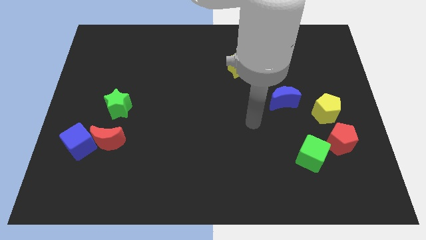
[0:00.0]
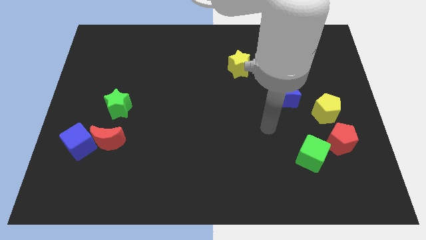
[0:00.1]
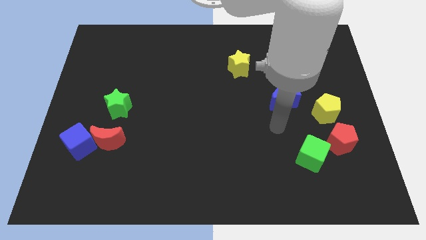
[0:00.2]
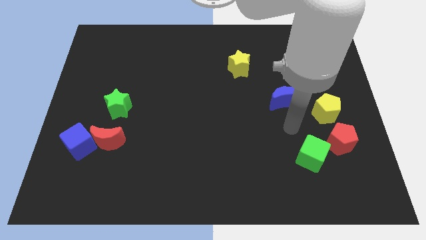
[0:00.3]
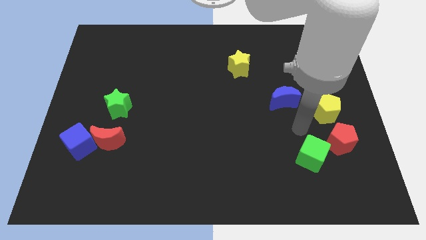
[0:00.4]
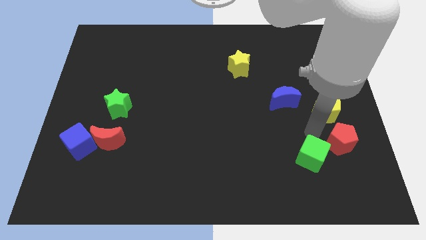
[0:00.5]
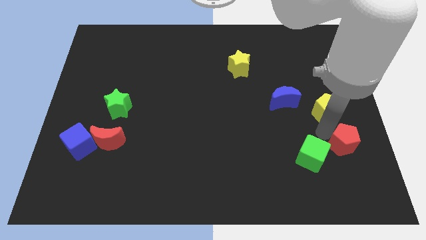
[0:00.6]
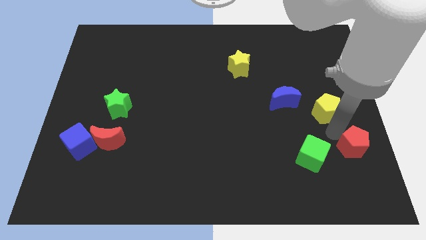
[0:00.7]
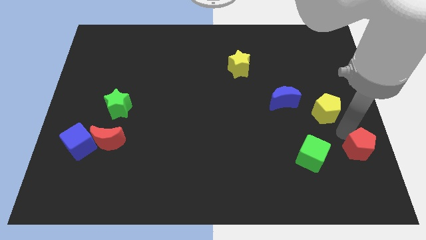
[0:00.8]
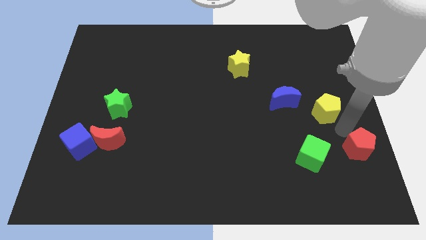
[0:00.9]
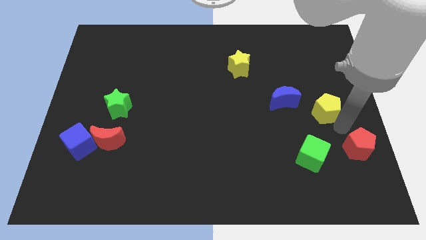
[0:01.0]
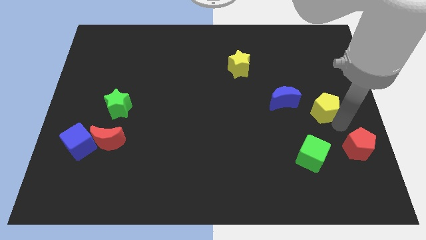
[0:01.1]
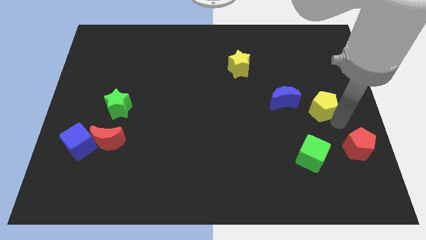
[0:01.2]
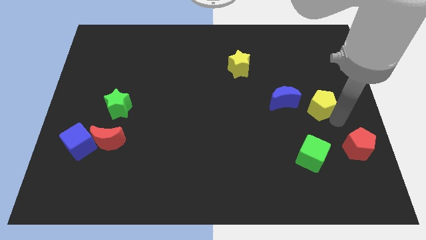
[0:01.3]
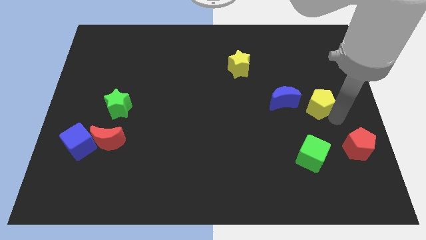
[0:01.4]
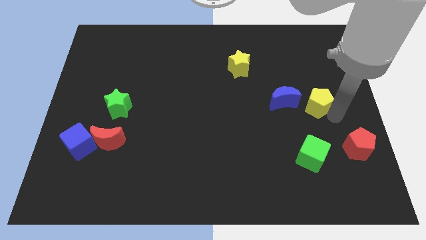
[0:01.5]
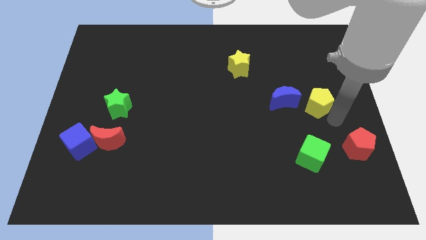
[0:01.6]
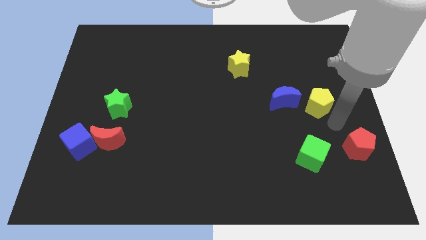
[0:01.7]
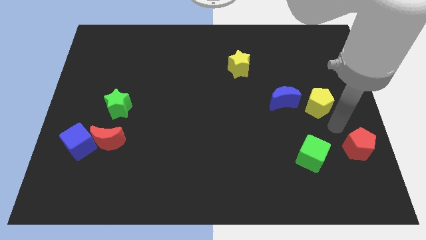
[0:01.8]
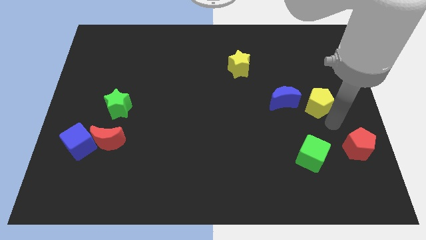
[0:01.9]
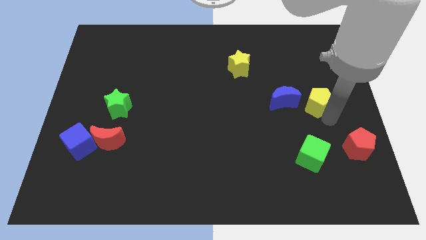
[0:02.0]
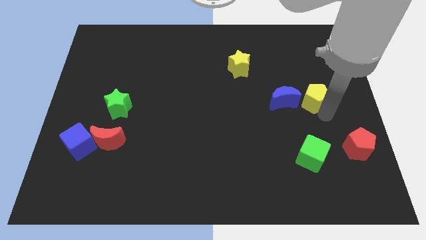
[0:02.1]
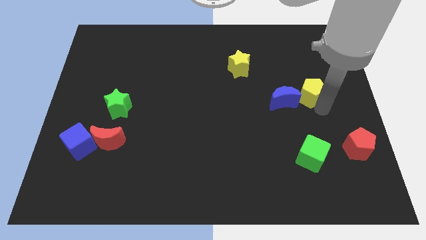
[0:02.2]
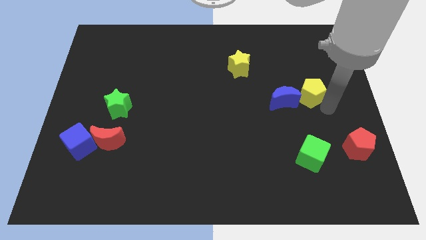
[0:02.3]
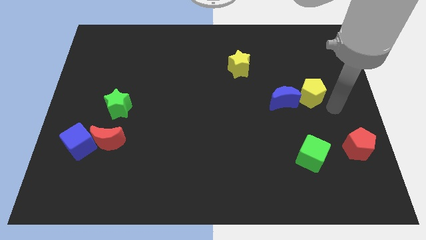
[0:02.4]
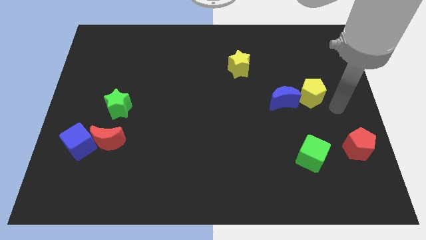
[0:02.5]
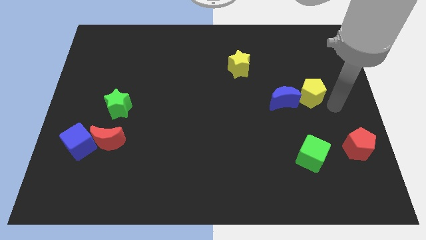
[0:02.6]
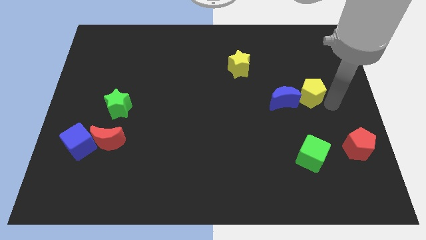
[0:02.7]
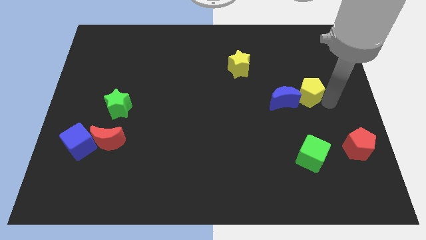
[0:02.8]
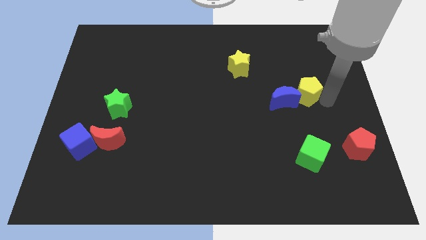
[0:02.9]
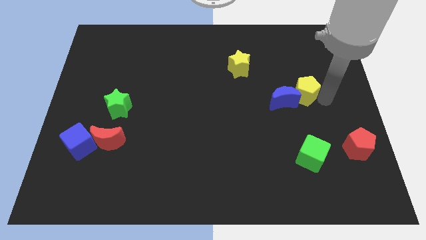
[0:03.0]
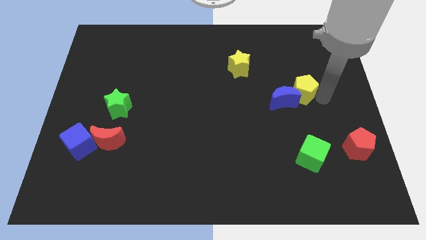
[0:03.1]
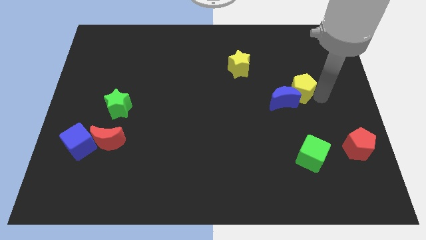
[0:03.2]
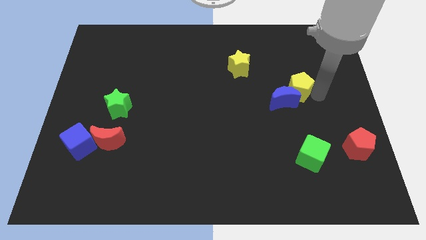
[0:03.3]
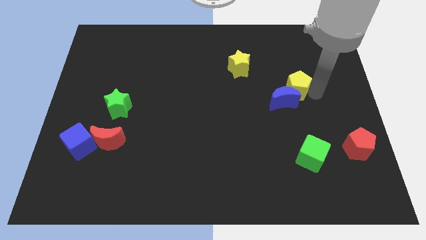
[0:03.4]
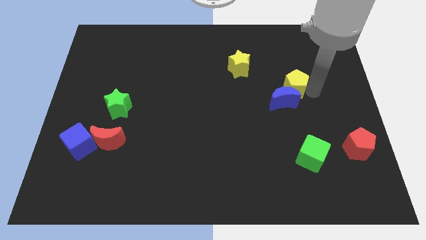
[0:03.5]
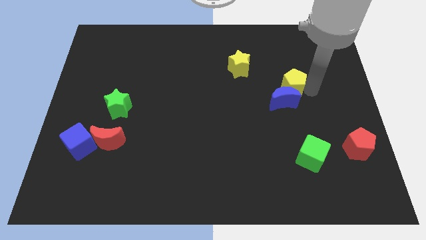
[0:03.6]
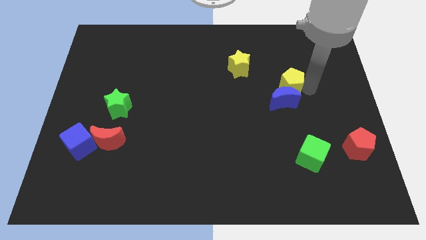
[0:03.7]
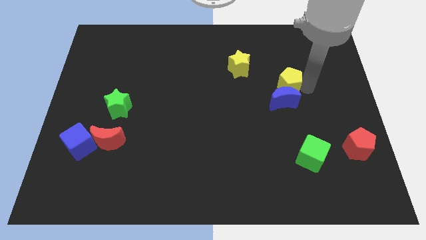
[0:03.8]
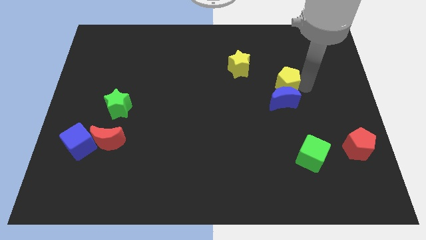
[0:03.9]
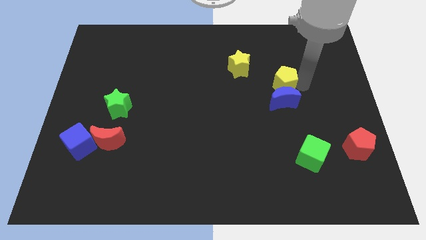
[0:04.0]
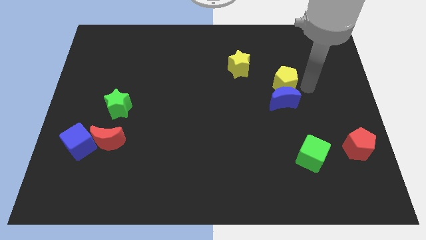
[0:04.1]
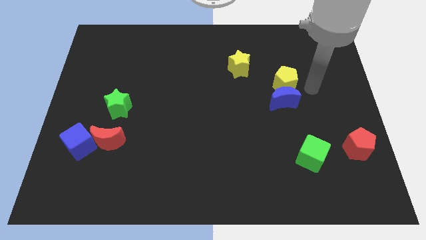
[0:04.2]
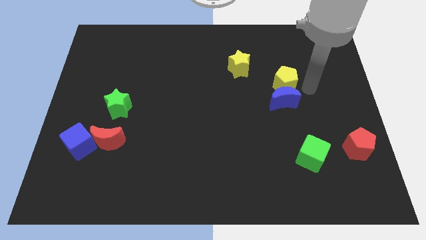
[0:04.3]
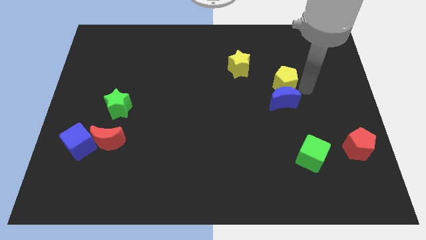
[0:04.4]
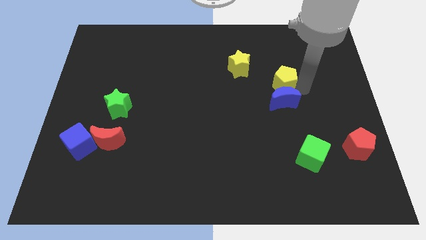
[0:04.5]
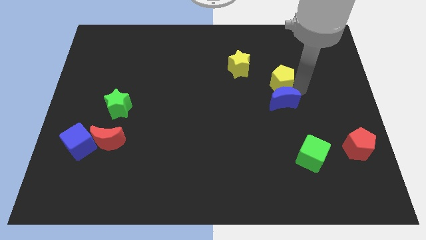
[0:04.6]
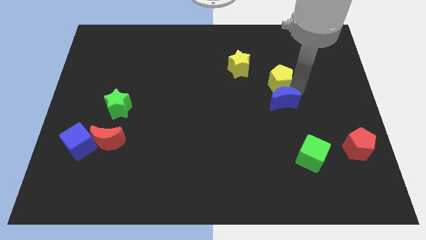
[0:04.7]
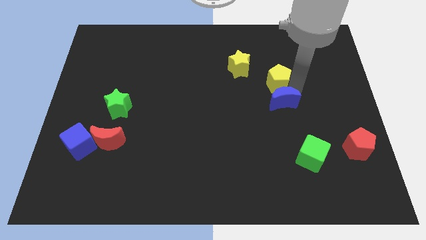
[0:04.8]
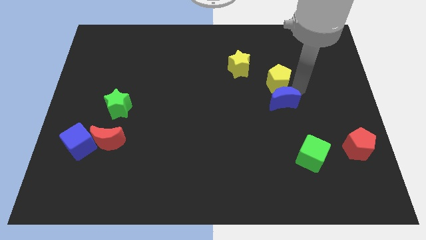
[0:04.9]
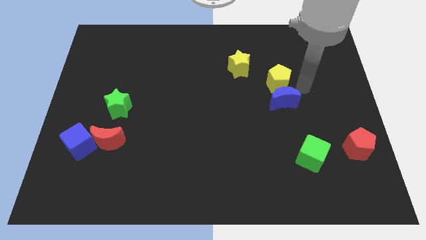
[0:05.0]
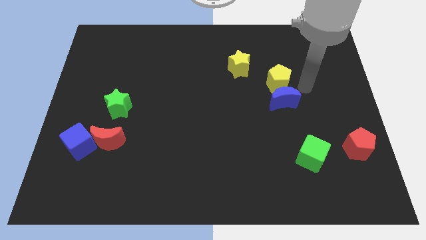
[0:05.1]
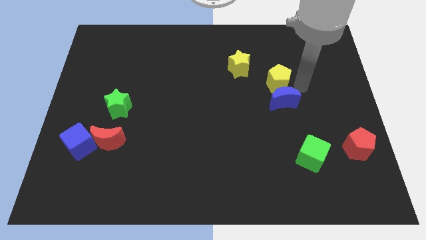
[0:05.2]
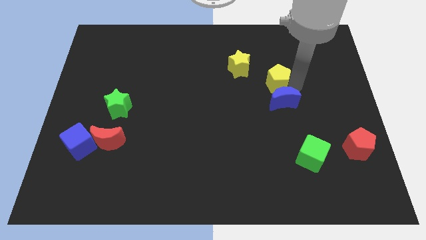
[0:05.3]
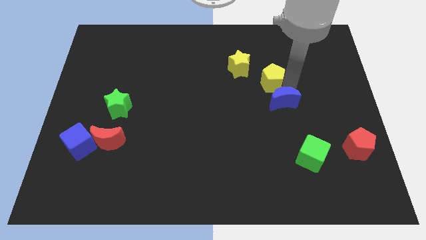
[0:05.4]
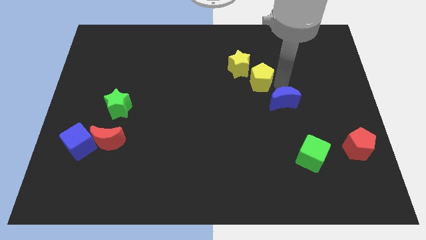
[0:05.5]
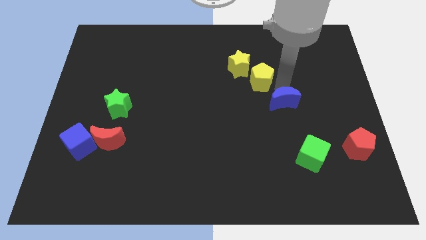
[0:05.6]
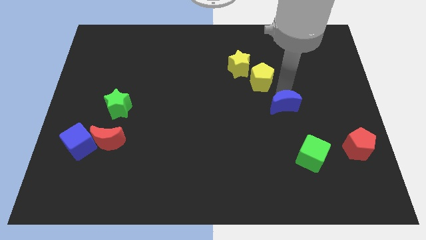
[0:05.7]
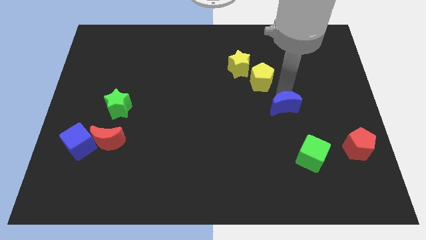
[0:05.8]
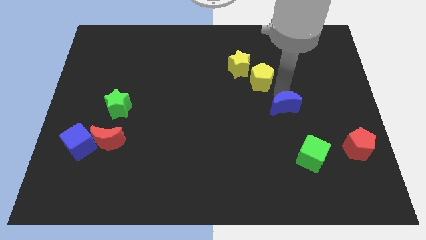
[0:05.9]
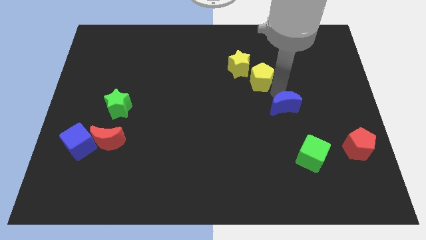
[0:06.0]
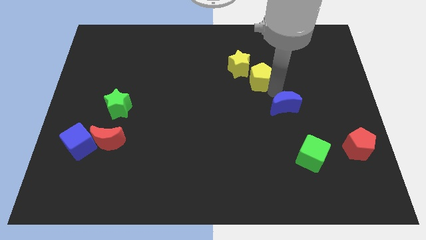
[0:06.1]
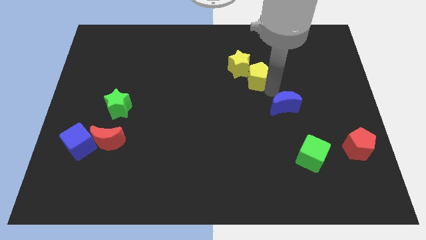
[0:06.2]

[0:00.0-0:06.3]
slide the yellow pentagon towards the yellow star
